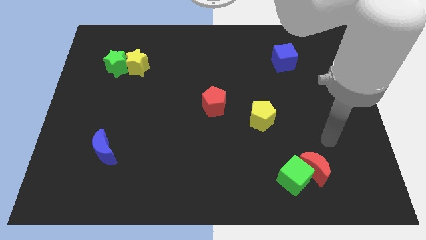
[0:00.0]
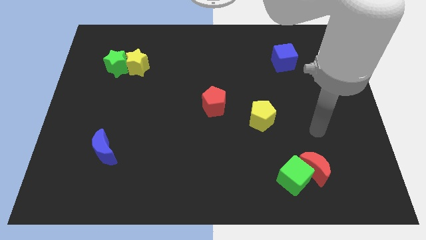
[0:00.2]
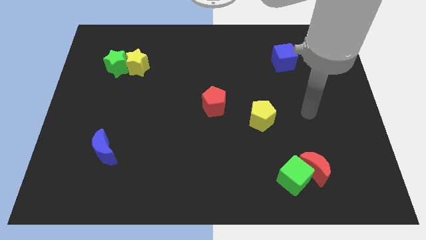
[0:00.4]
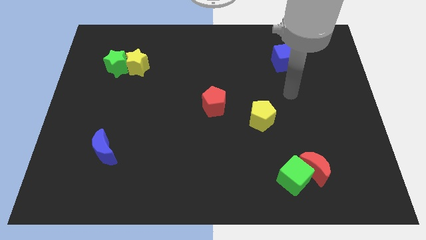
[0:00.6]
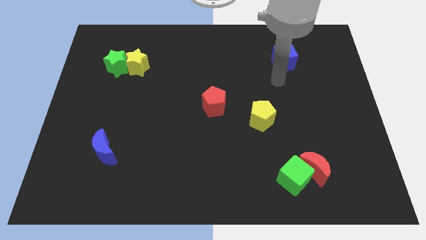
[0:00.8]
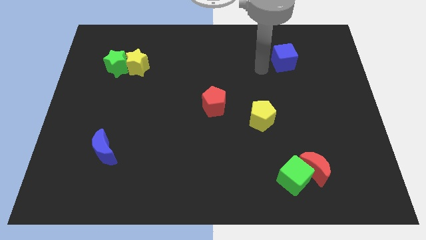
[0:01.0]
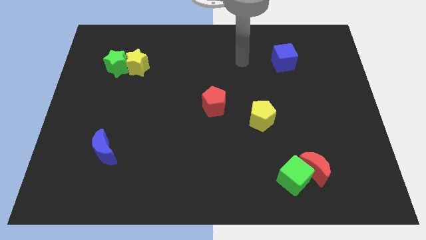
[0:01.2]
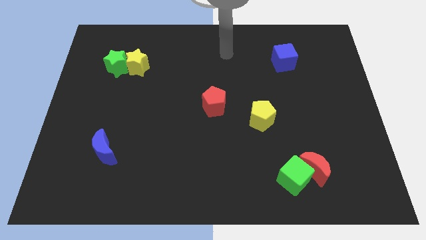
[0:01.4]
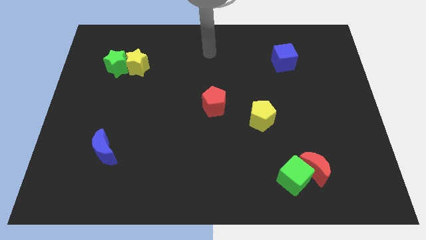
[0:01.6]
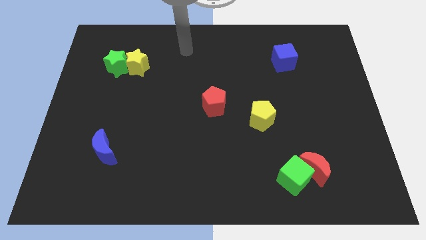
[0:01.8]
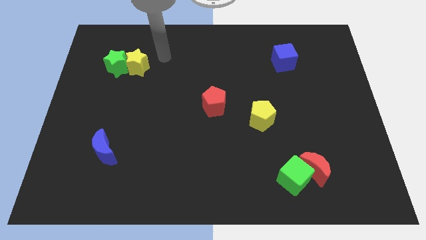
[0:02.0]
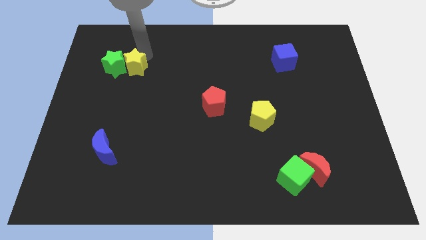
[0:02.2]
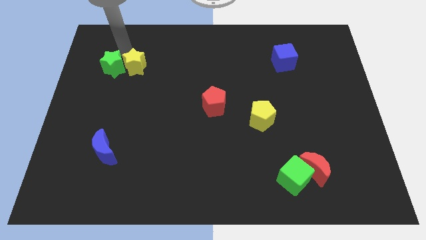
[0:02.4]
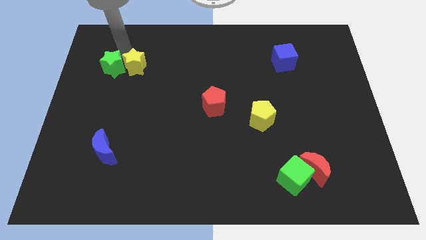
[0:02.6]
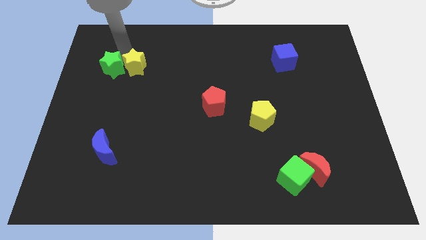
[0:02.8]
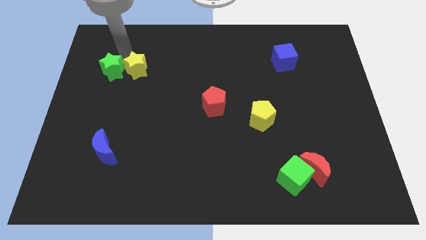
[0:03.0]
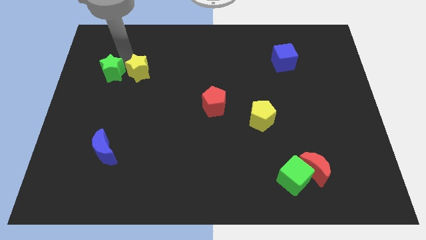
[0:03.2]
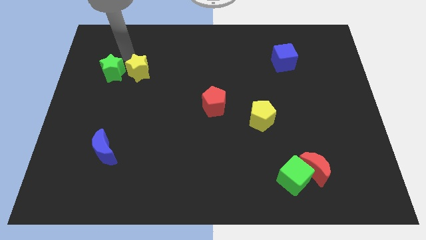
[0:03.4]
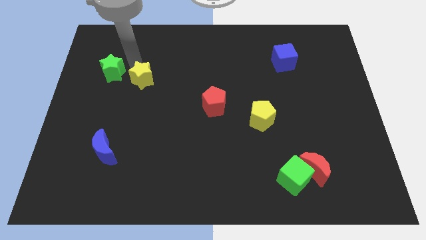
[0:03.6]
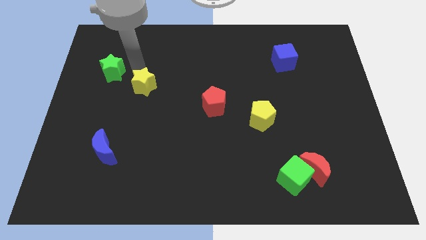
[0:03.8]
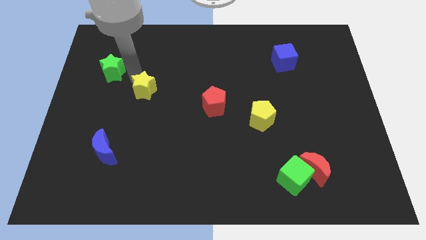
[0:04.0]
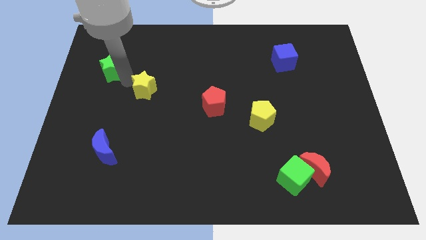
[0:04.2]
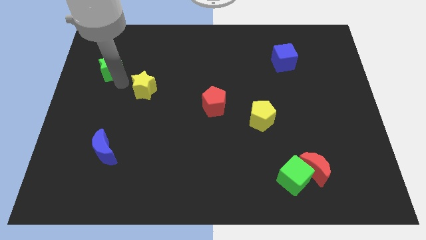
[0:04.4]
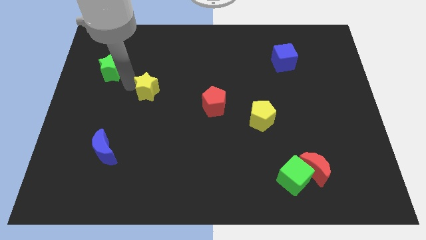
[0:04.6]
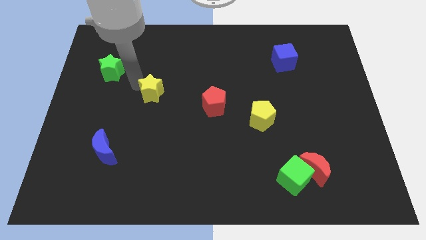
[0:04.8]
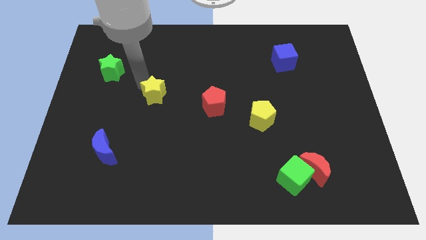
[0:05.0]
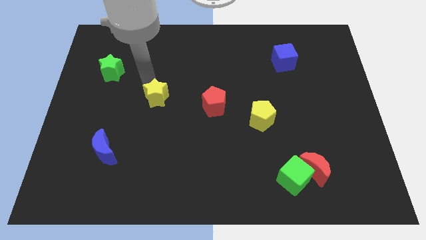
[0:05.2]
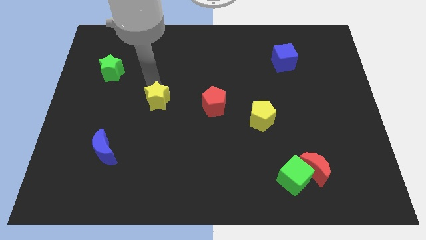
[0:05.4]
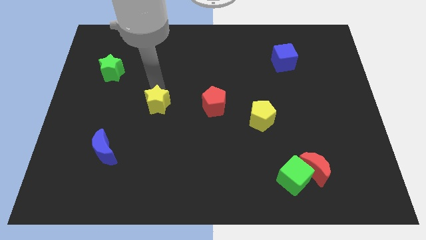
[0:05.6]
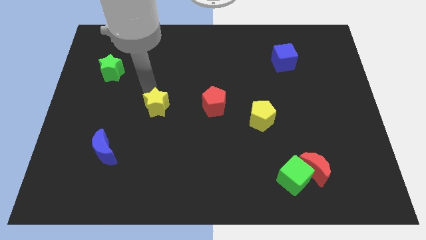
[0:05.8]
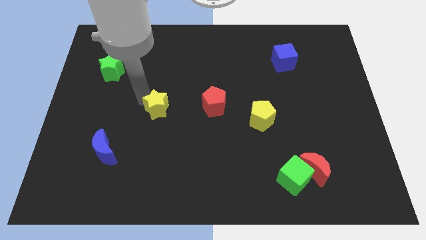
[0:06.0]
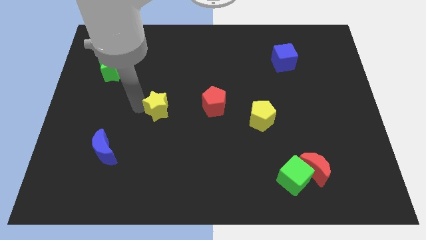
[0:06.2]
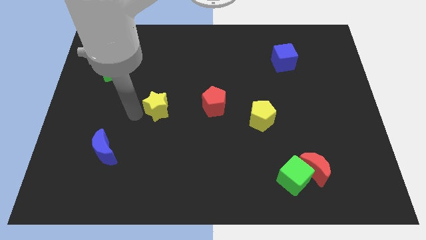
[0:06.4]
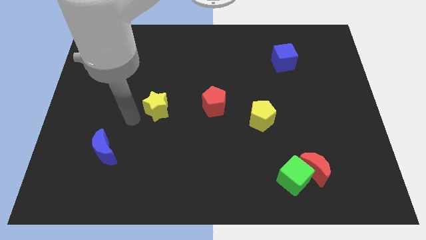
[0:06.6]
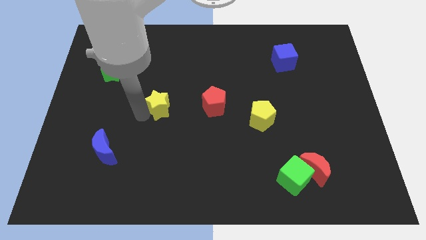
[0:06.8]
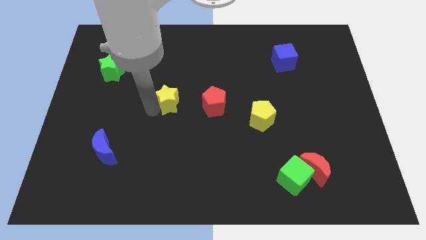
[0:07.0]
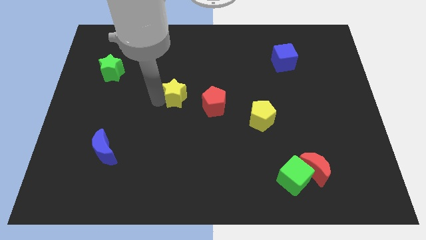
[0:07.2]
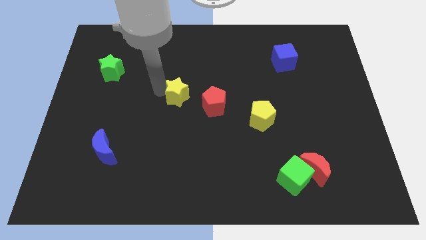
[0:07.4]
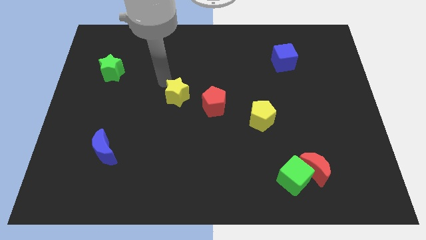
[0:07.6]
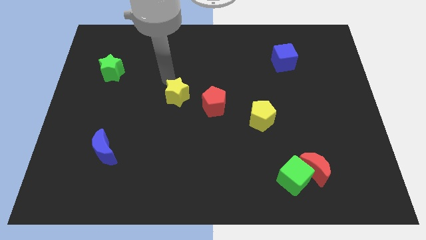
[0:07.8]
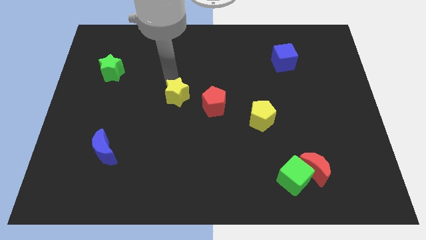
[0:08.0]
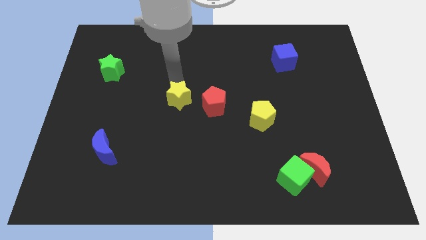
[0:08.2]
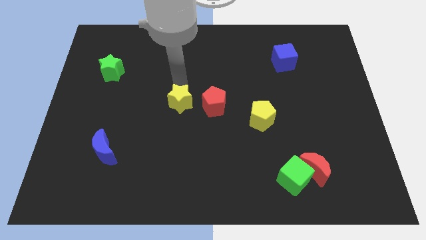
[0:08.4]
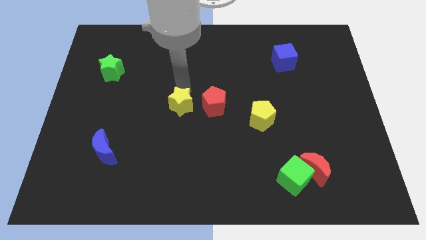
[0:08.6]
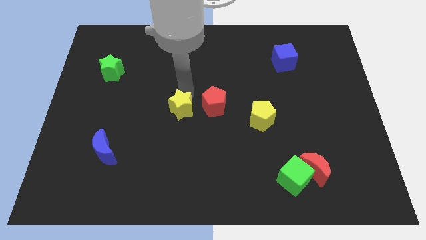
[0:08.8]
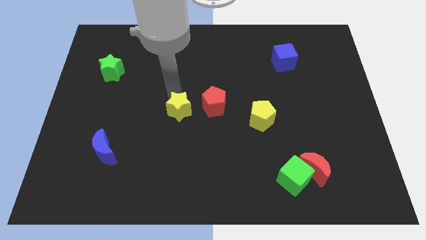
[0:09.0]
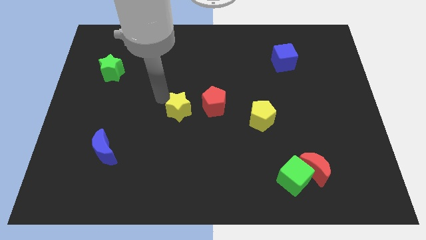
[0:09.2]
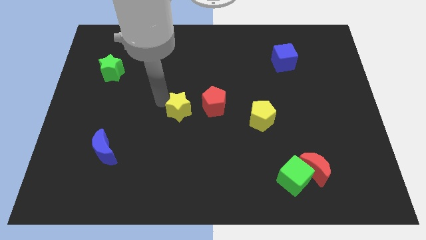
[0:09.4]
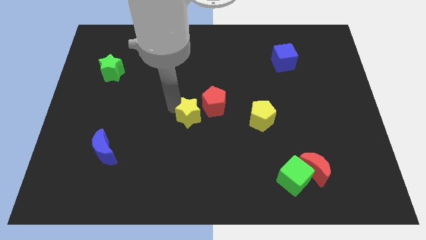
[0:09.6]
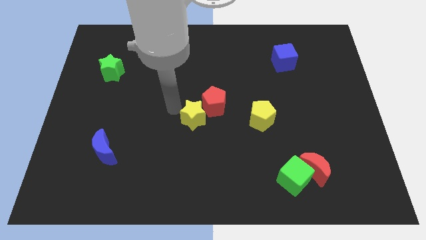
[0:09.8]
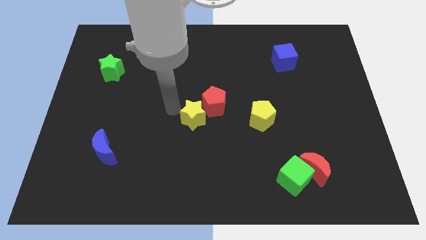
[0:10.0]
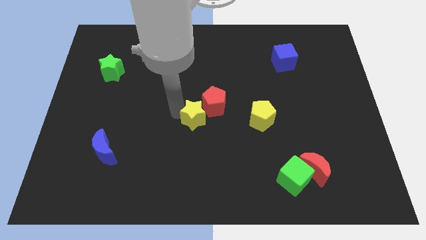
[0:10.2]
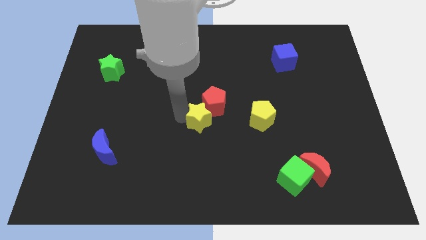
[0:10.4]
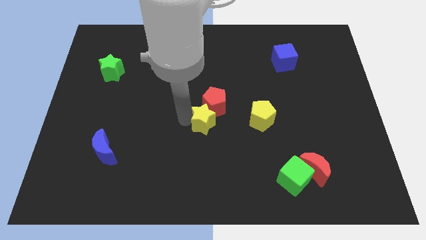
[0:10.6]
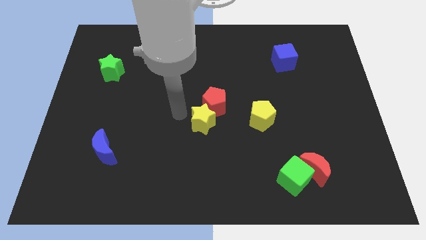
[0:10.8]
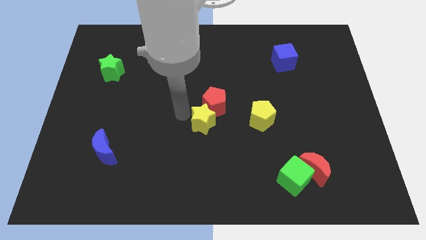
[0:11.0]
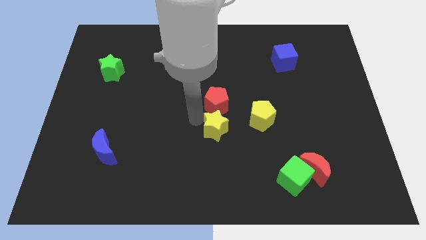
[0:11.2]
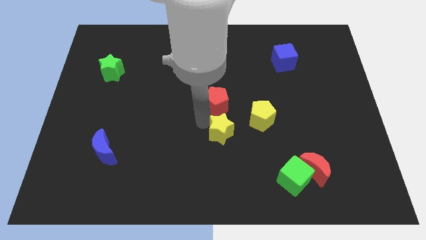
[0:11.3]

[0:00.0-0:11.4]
move the yellow star to the bottom left of the yellow pentagon

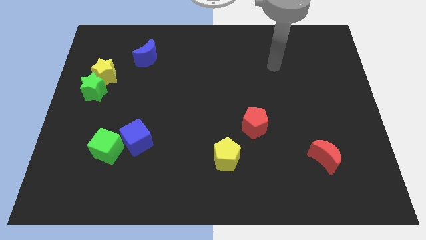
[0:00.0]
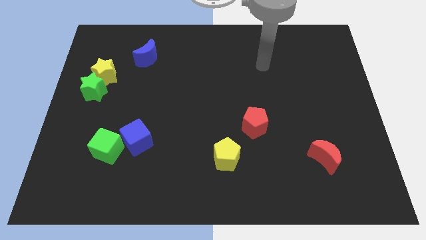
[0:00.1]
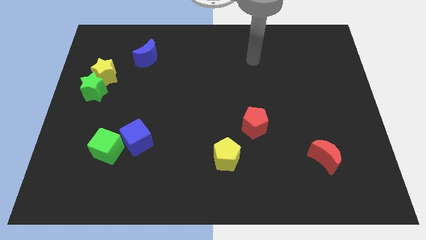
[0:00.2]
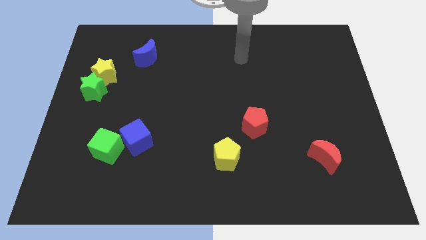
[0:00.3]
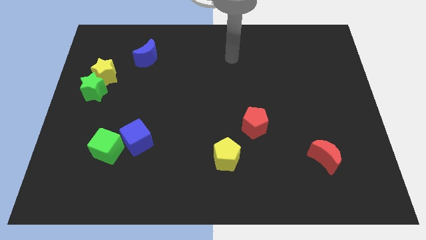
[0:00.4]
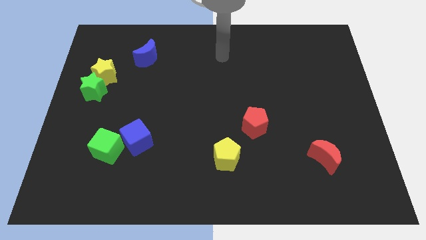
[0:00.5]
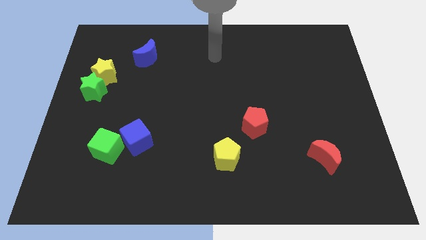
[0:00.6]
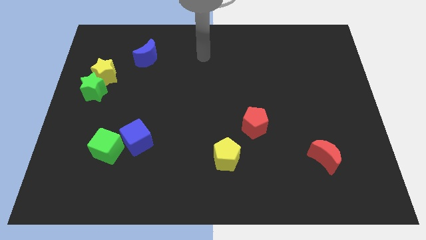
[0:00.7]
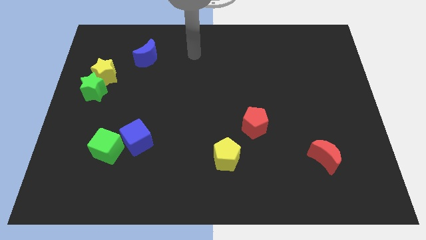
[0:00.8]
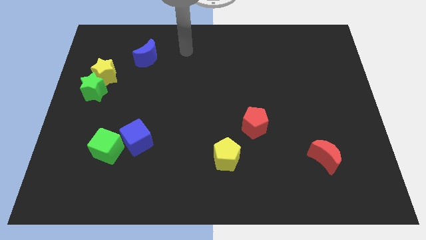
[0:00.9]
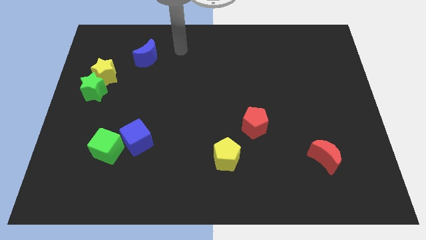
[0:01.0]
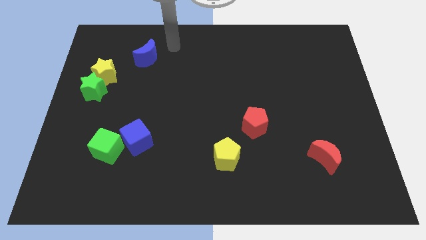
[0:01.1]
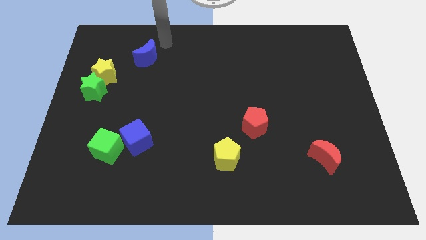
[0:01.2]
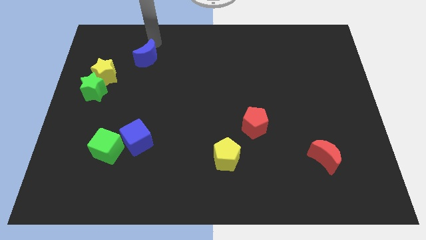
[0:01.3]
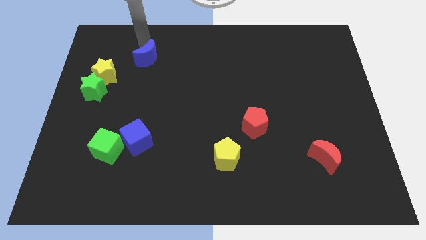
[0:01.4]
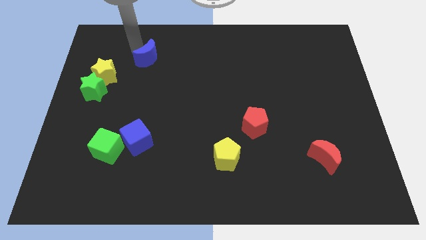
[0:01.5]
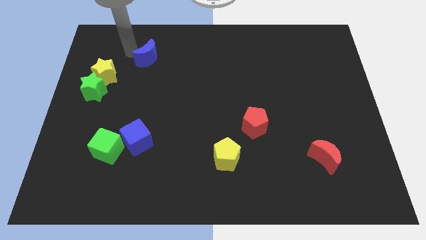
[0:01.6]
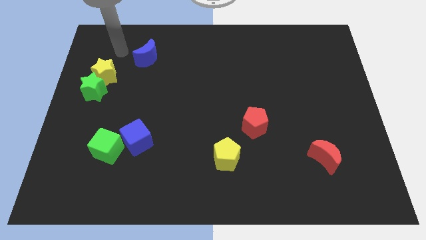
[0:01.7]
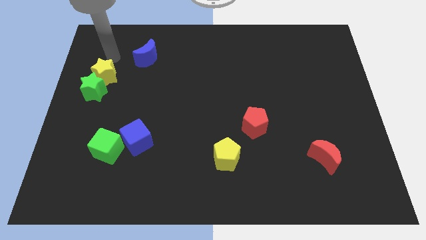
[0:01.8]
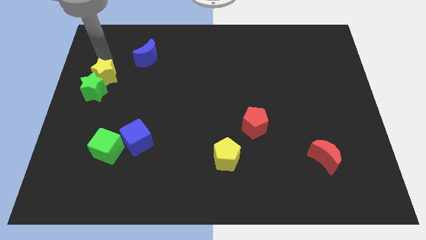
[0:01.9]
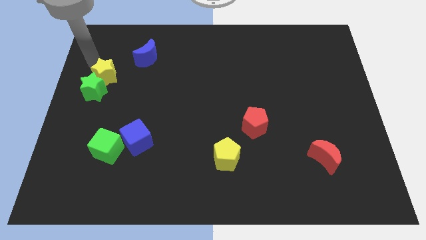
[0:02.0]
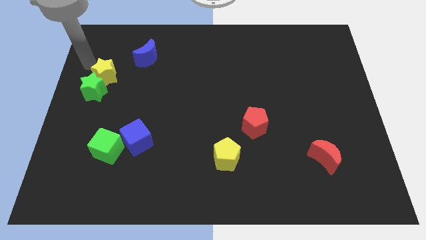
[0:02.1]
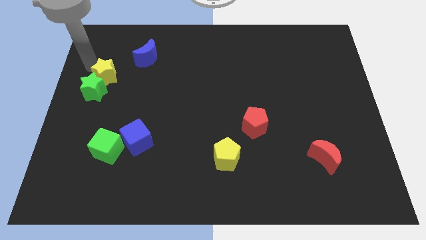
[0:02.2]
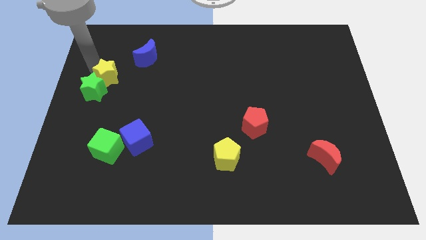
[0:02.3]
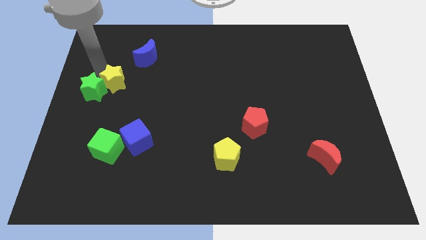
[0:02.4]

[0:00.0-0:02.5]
put the yellow star right of the green star
